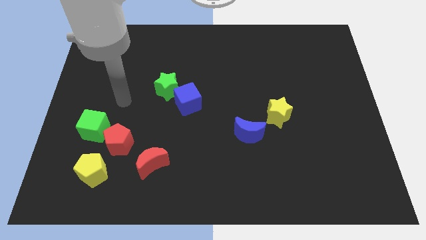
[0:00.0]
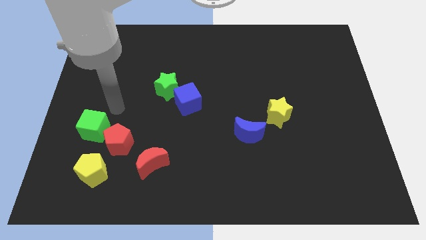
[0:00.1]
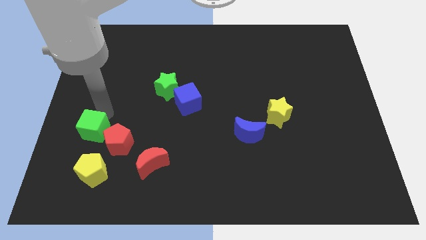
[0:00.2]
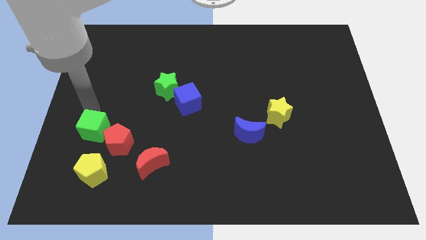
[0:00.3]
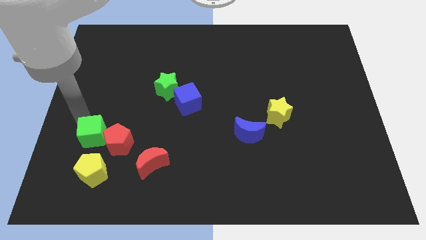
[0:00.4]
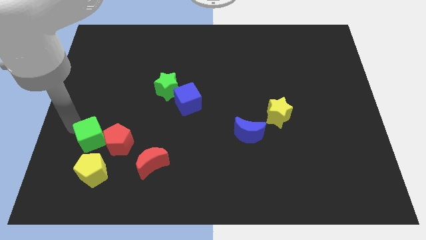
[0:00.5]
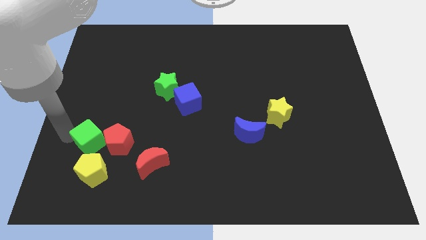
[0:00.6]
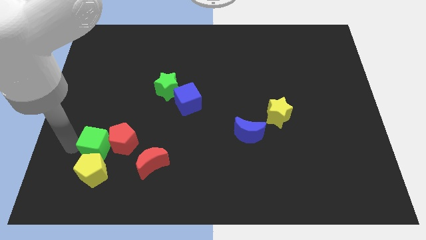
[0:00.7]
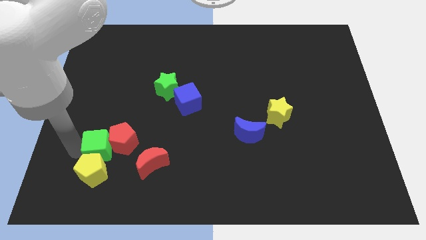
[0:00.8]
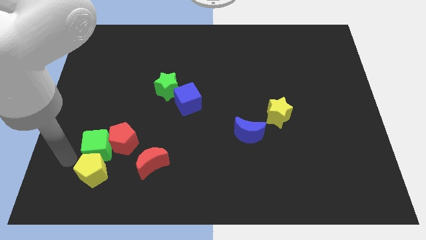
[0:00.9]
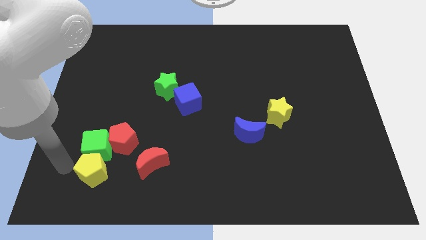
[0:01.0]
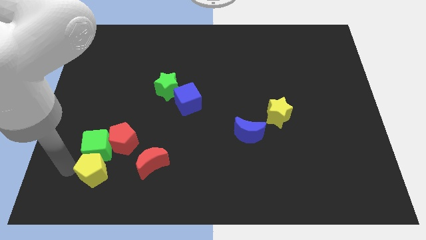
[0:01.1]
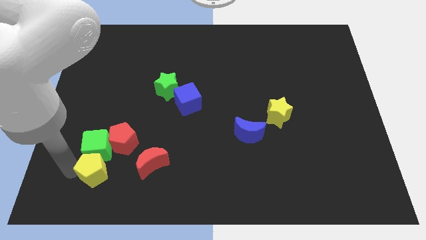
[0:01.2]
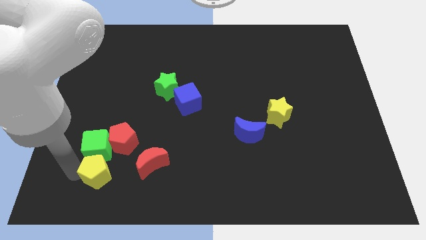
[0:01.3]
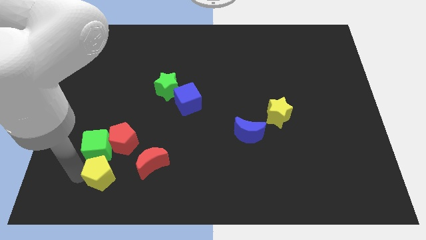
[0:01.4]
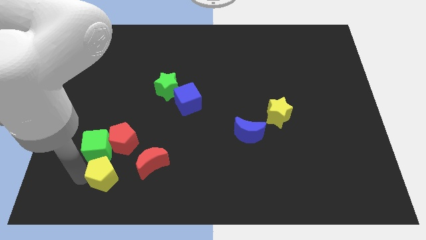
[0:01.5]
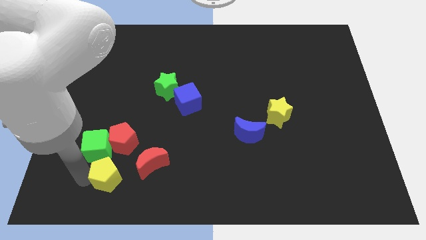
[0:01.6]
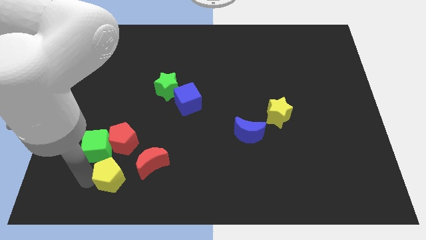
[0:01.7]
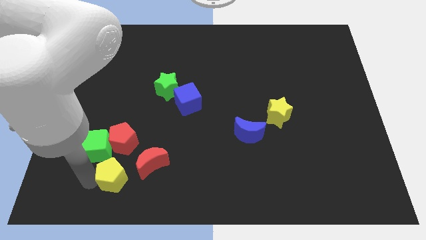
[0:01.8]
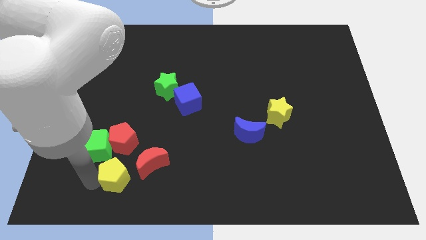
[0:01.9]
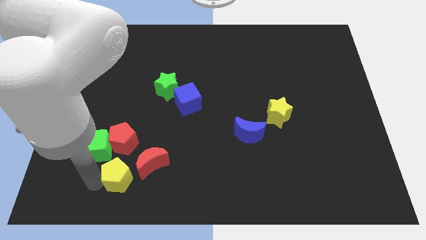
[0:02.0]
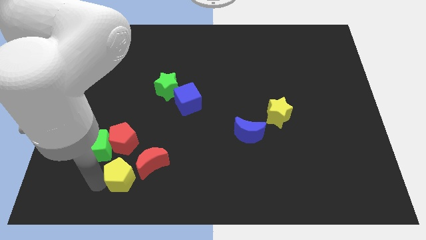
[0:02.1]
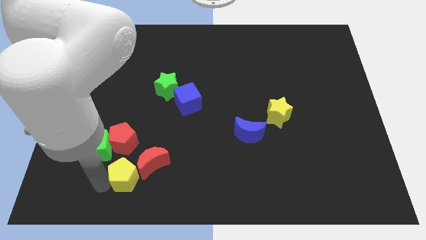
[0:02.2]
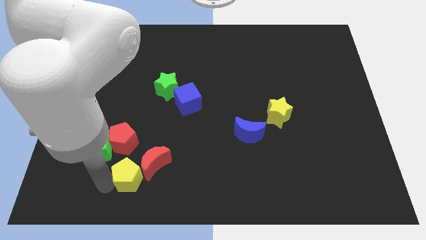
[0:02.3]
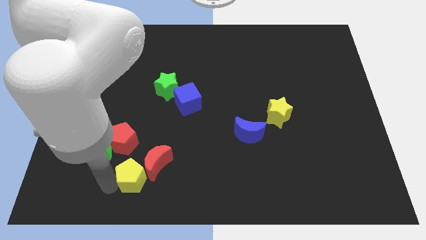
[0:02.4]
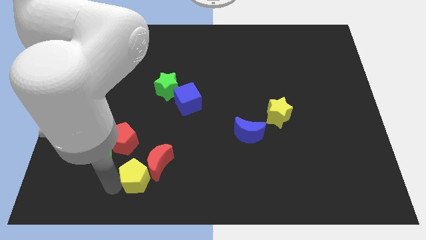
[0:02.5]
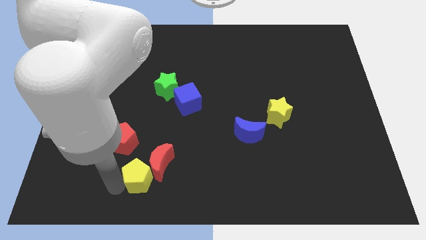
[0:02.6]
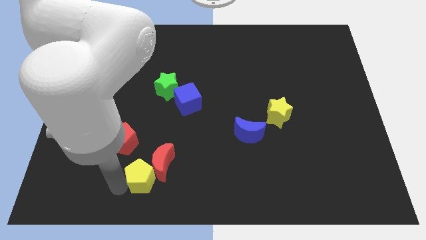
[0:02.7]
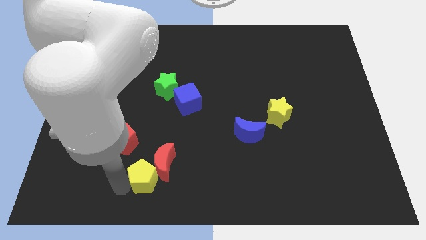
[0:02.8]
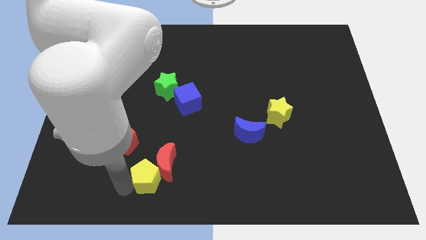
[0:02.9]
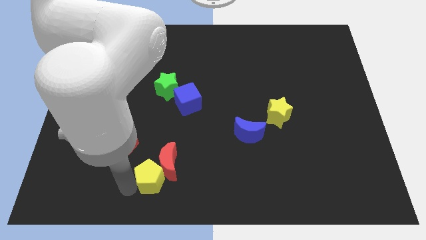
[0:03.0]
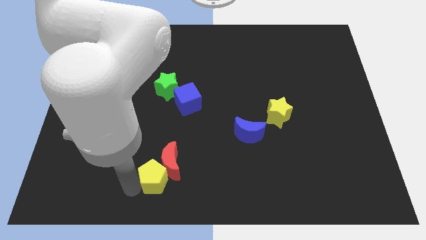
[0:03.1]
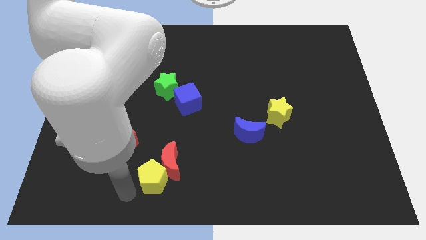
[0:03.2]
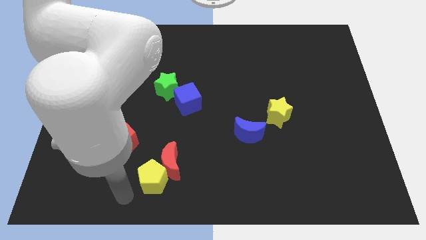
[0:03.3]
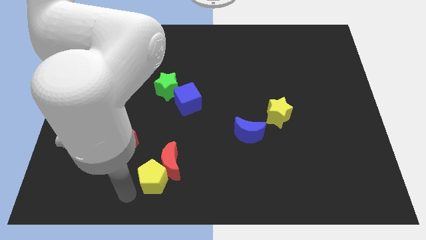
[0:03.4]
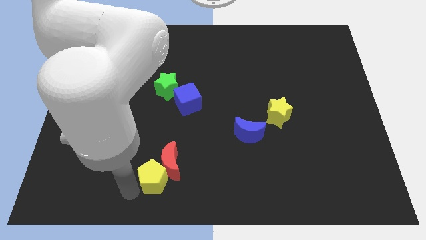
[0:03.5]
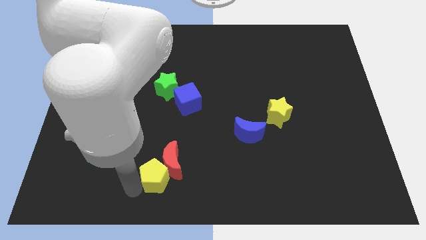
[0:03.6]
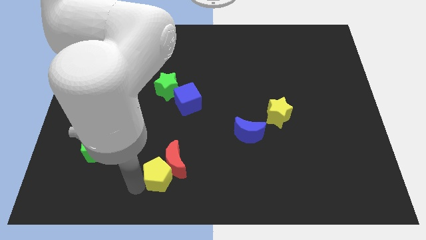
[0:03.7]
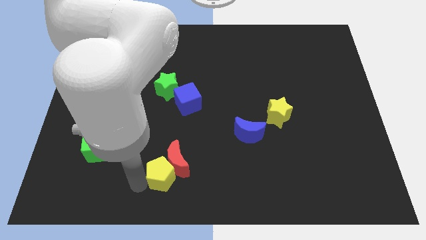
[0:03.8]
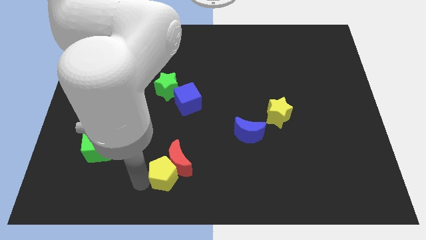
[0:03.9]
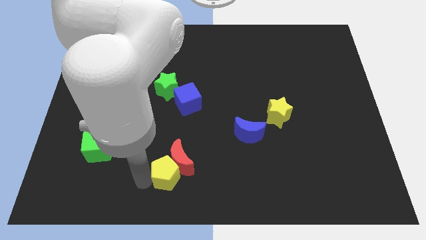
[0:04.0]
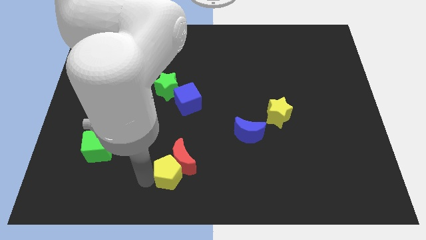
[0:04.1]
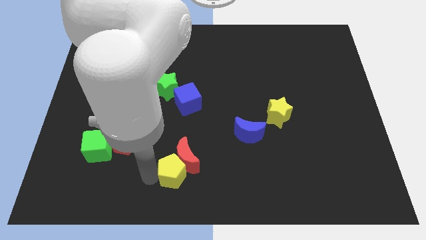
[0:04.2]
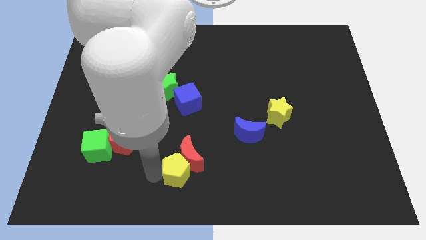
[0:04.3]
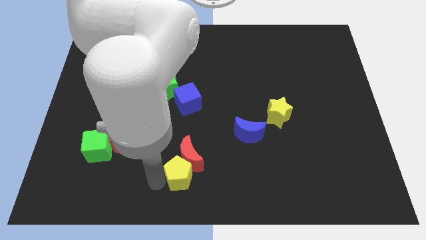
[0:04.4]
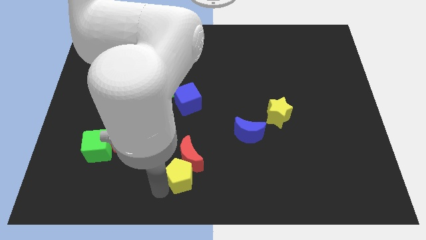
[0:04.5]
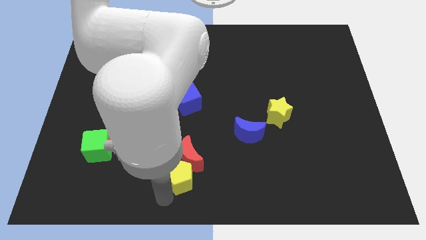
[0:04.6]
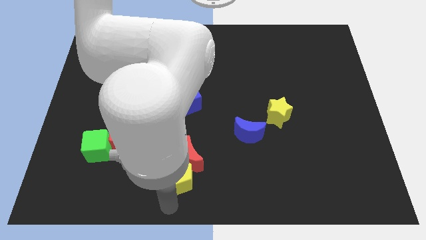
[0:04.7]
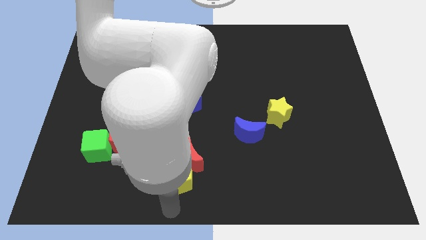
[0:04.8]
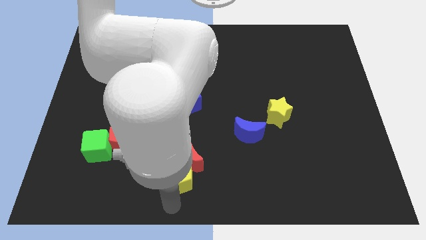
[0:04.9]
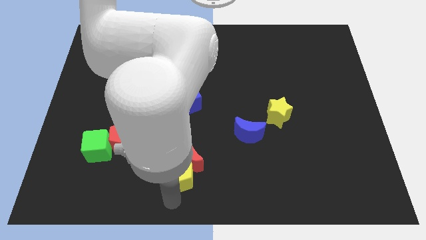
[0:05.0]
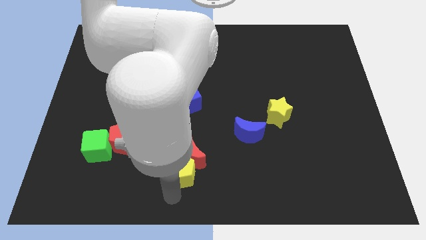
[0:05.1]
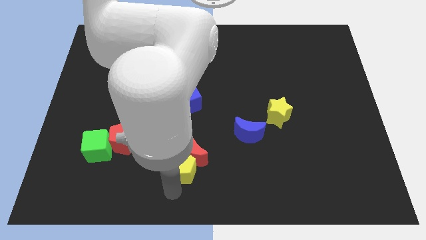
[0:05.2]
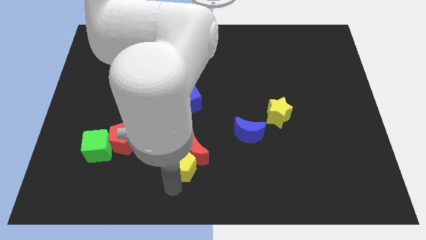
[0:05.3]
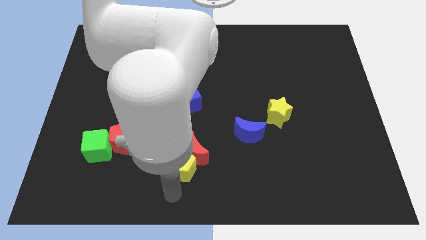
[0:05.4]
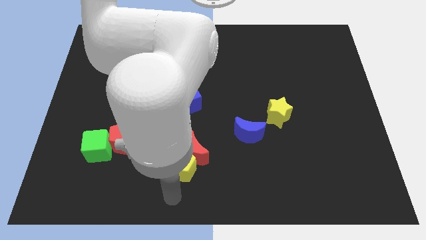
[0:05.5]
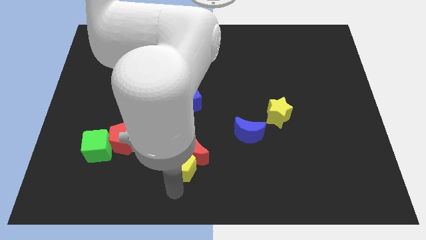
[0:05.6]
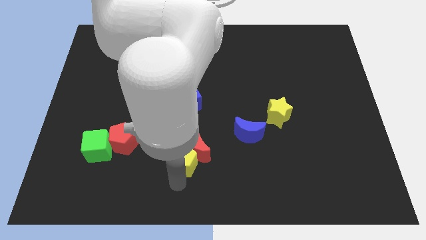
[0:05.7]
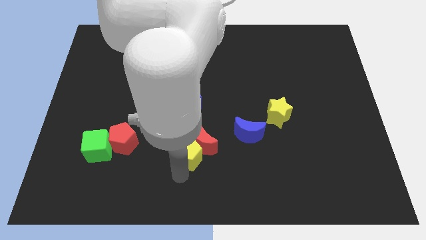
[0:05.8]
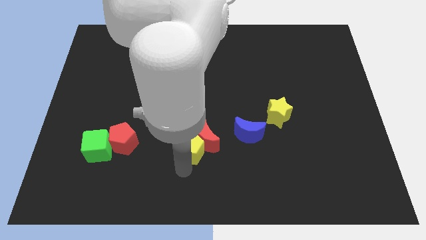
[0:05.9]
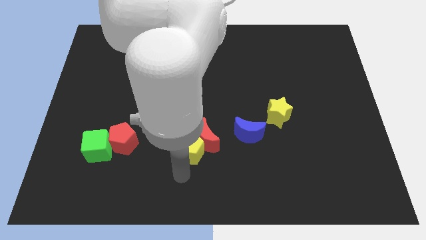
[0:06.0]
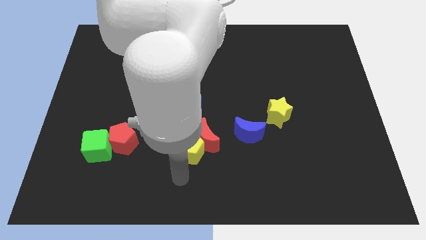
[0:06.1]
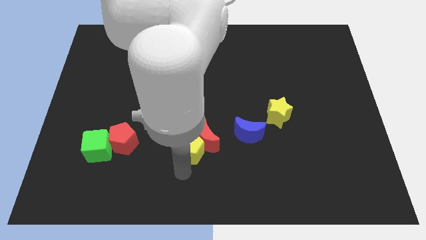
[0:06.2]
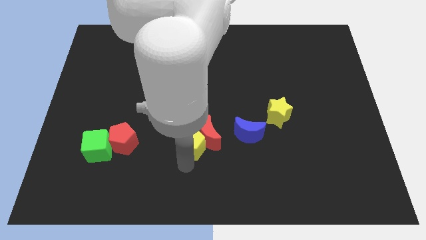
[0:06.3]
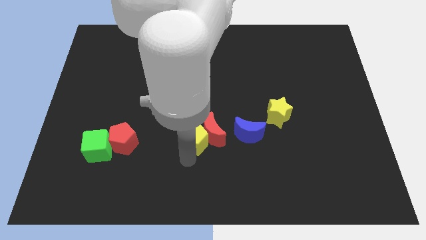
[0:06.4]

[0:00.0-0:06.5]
push the yellow pentagon to the middle
